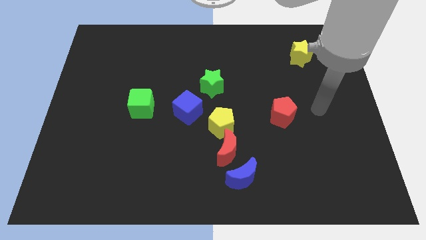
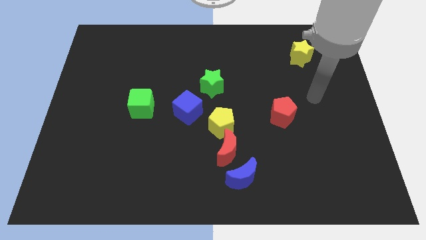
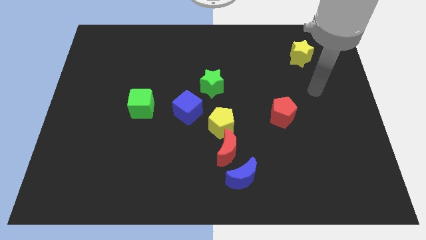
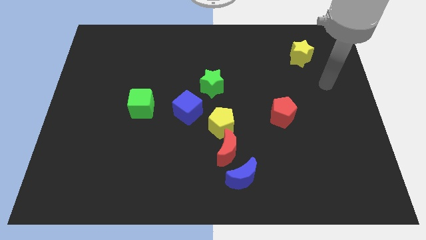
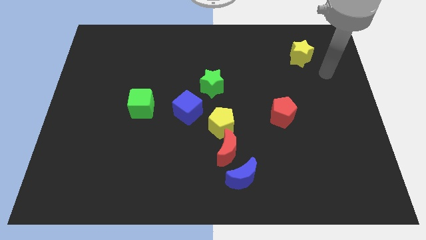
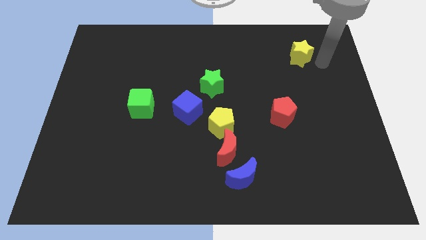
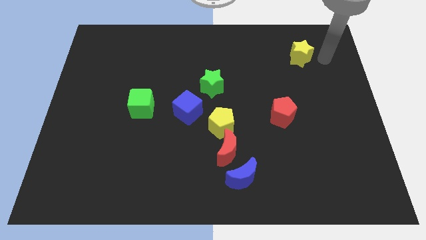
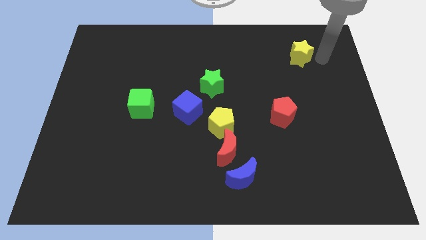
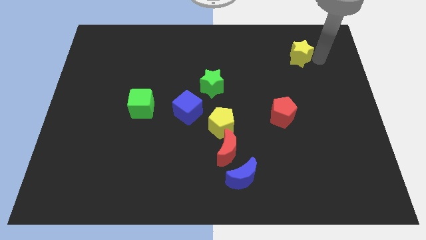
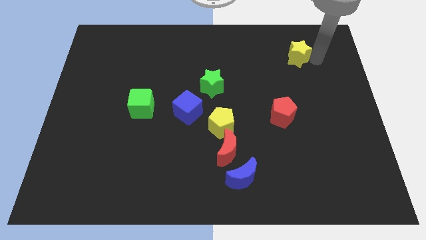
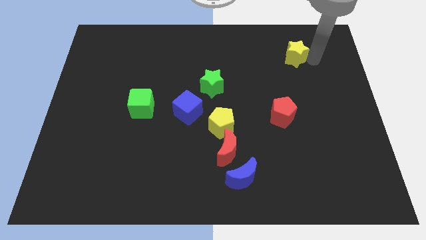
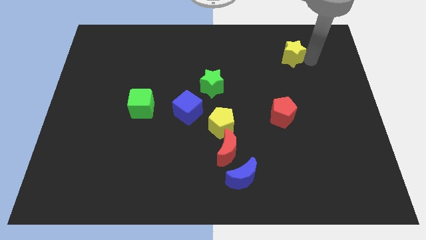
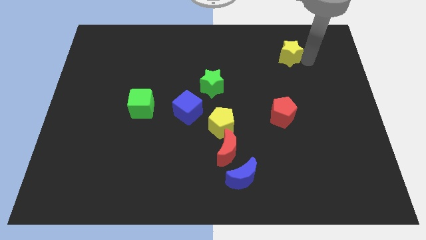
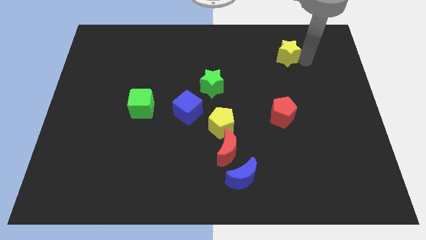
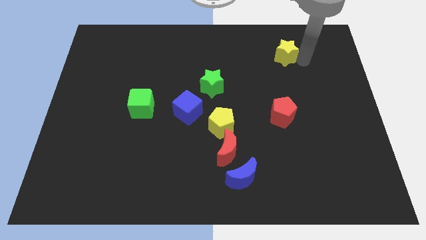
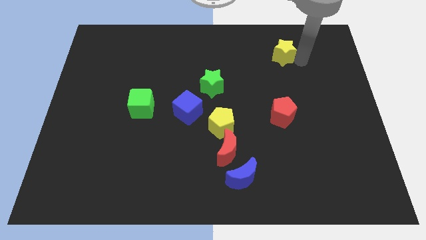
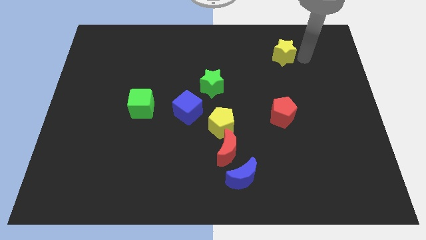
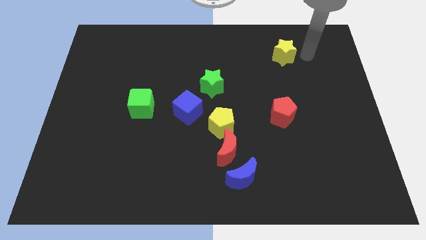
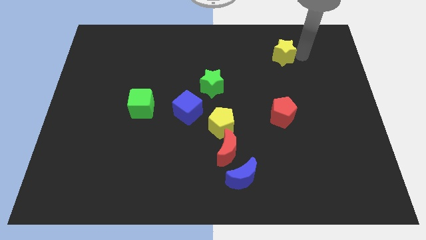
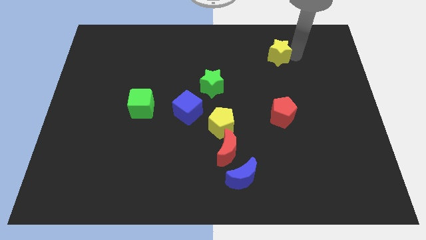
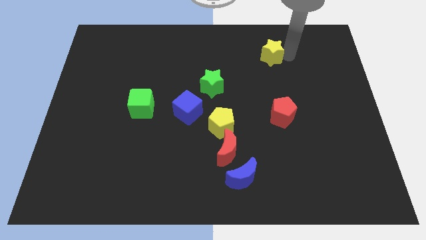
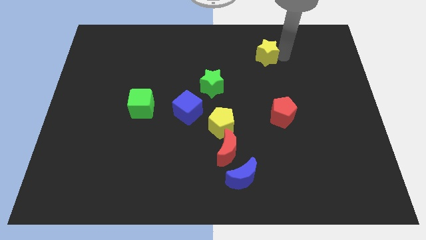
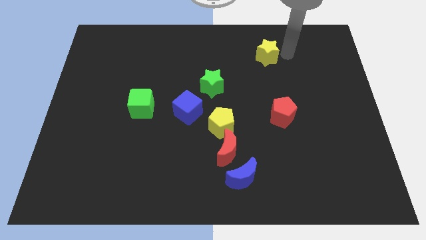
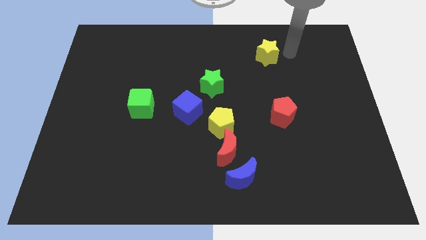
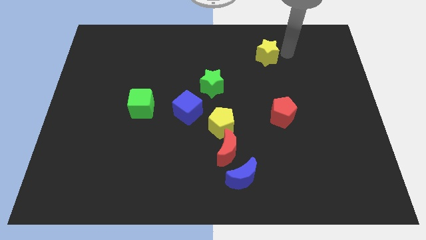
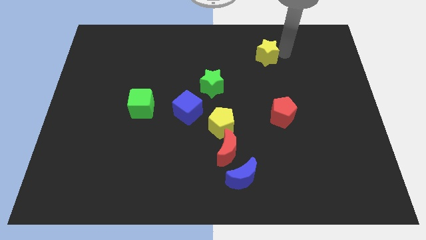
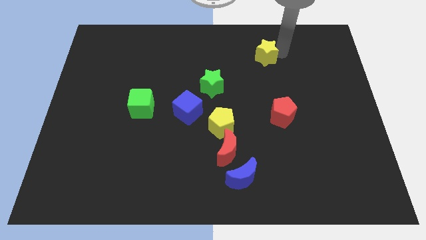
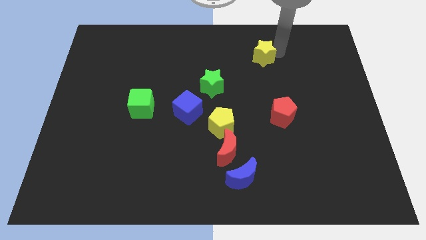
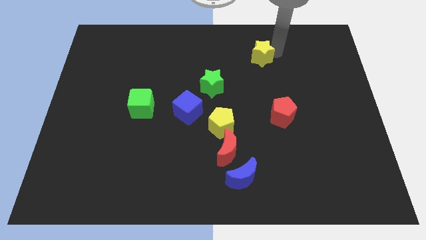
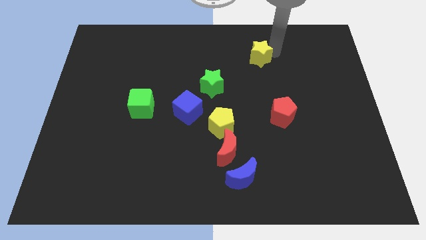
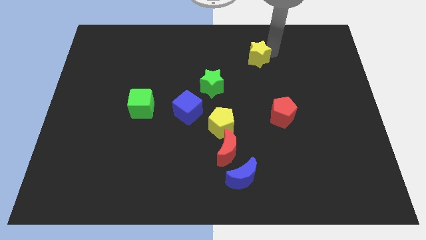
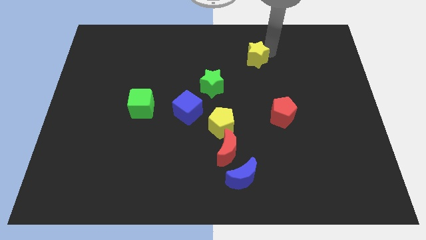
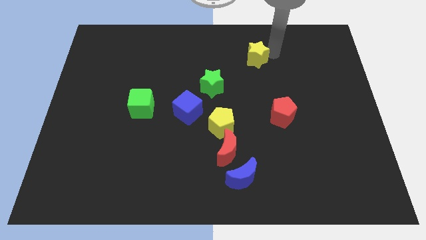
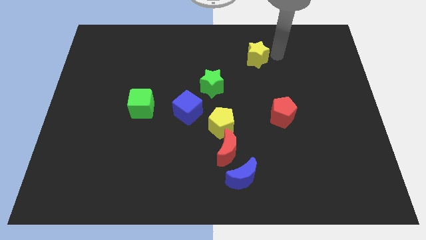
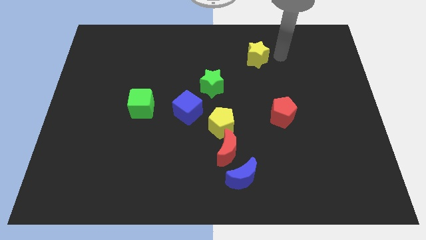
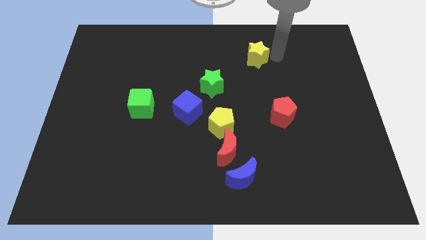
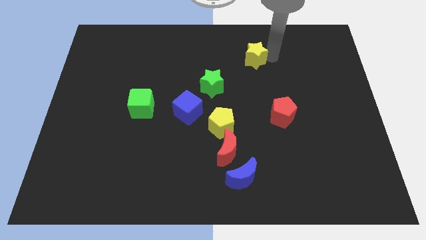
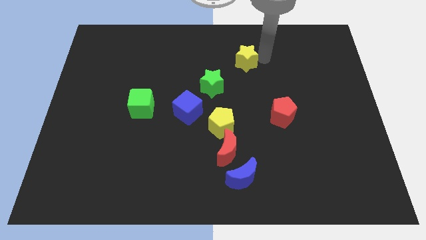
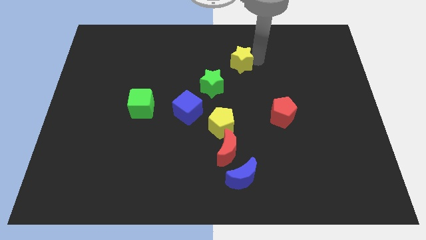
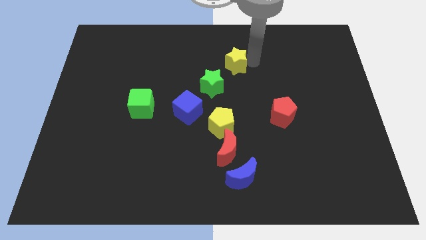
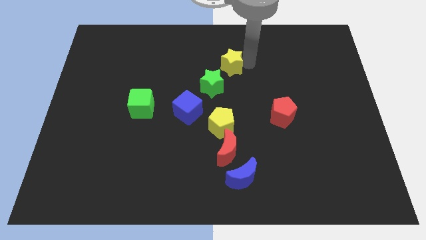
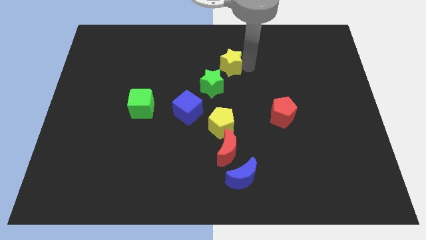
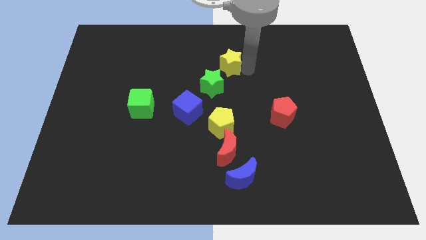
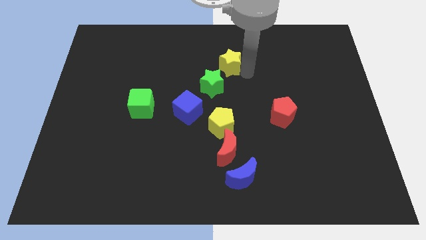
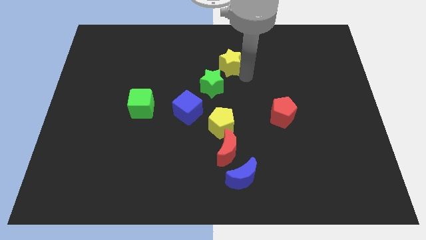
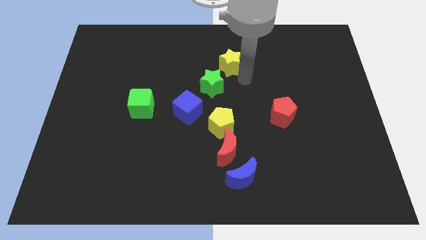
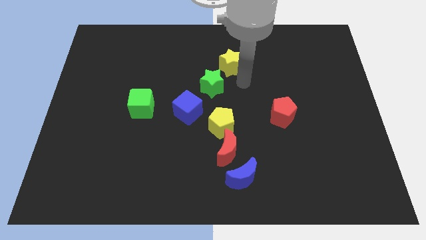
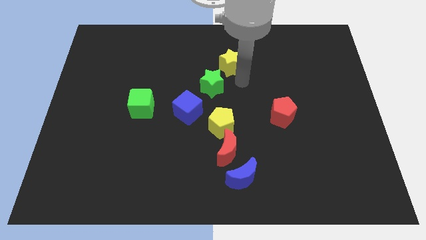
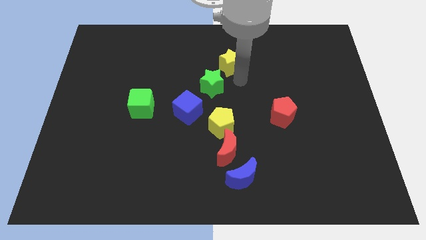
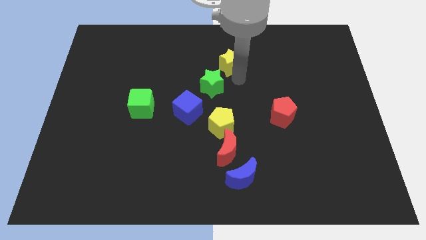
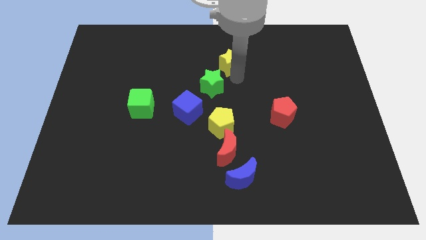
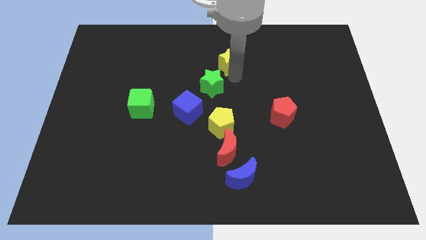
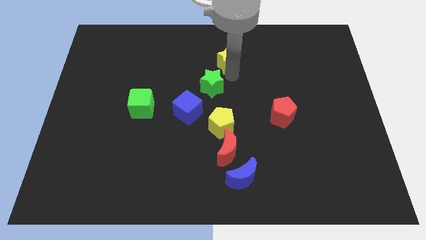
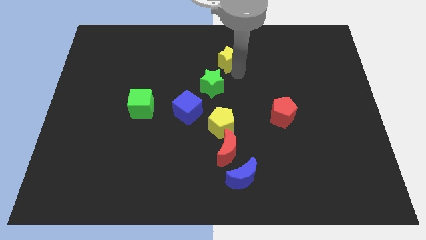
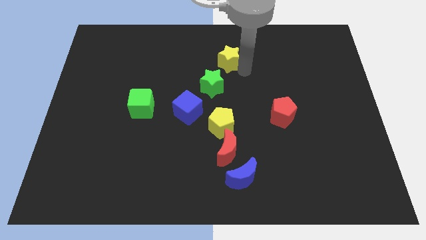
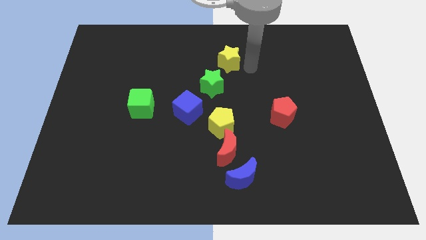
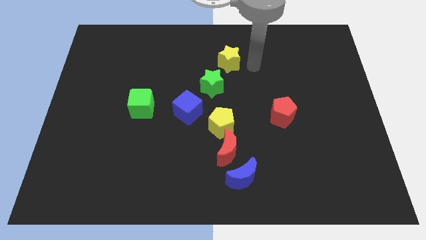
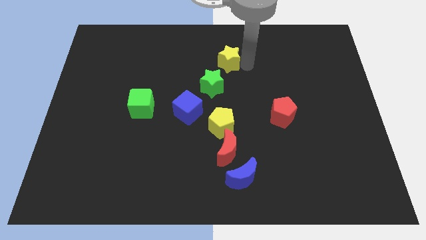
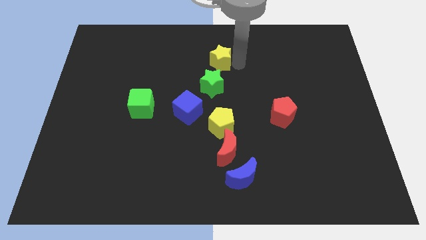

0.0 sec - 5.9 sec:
slide the yellow star to the left

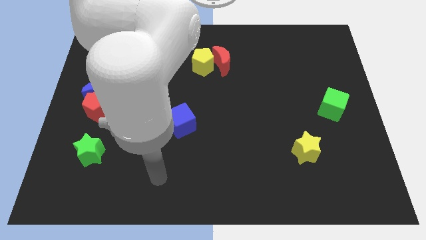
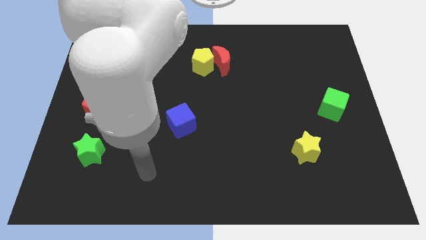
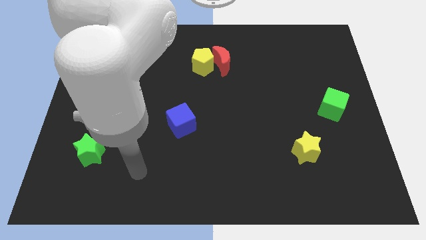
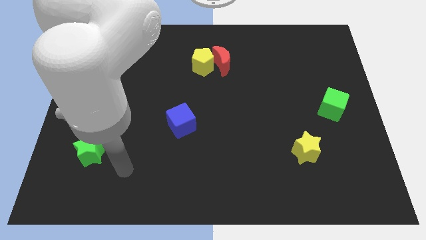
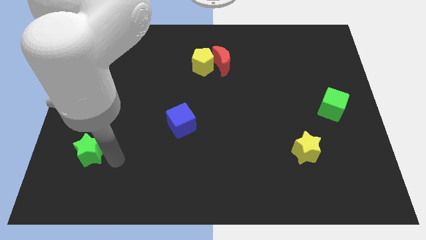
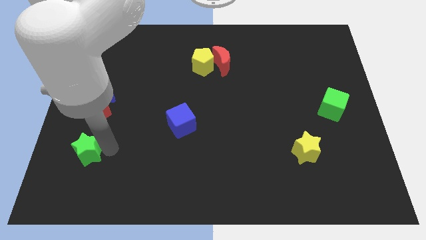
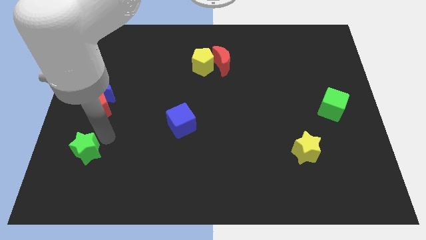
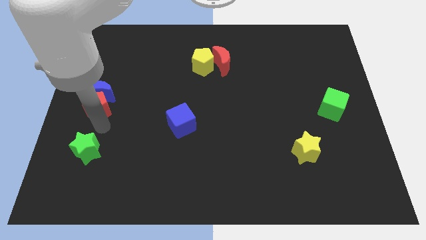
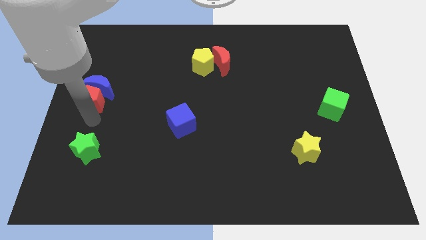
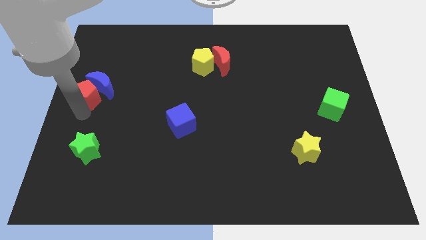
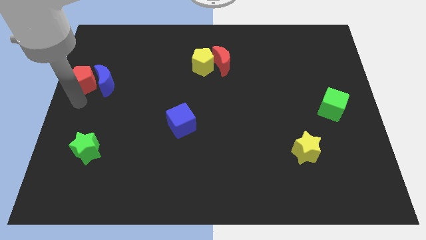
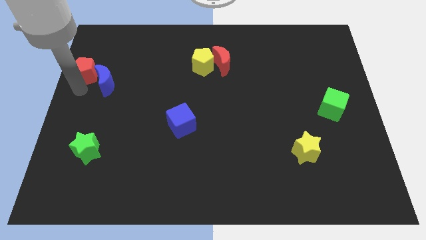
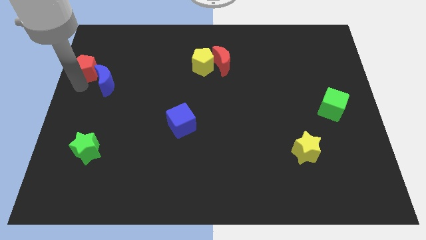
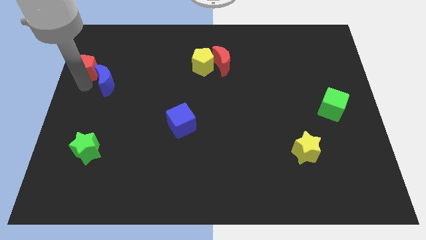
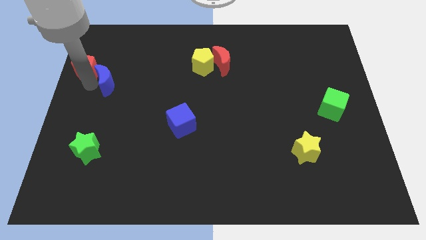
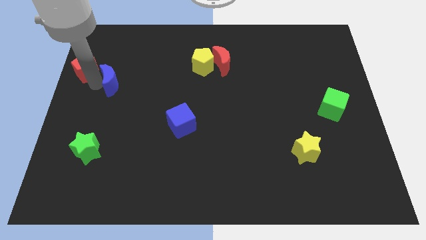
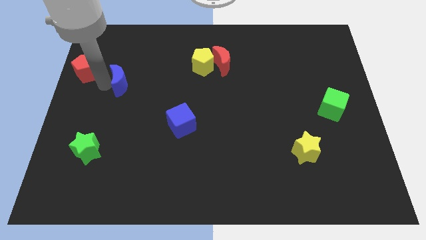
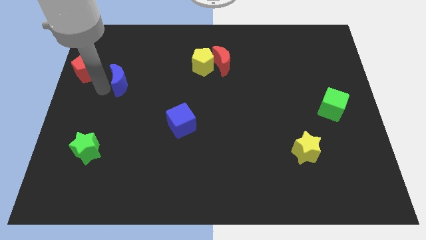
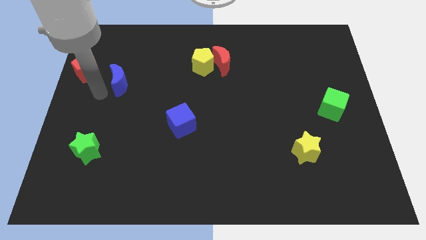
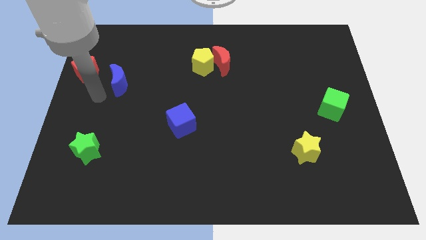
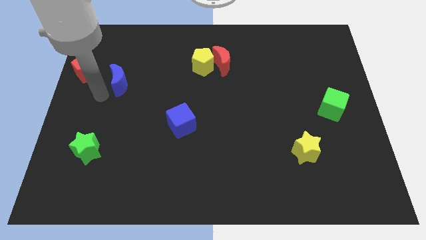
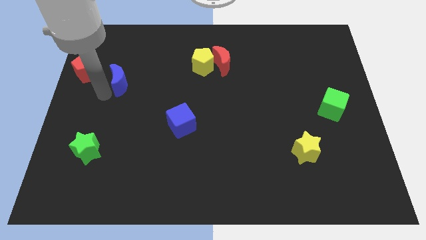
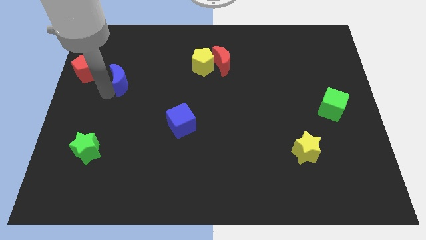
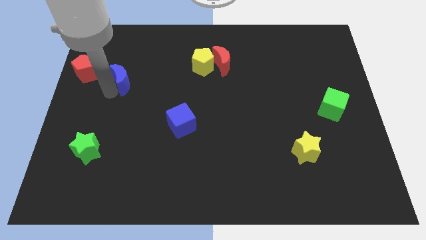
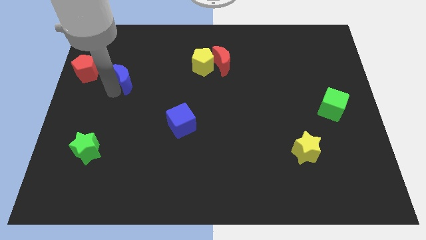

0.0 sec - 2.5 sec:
move the blue moon upwards and then right a bit
